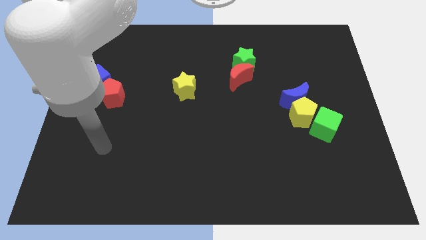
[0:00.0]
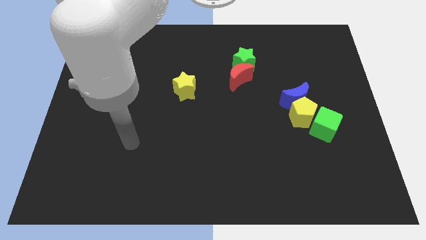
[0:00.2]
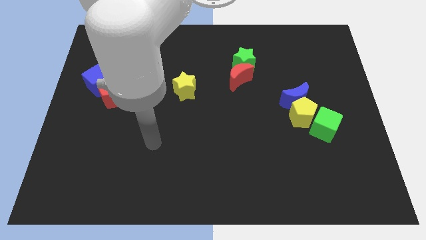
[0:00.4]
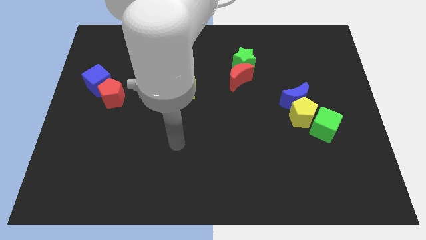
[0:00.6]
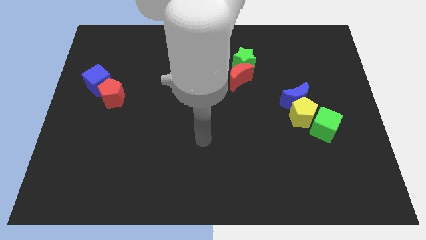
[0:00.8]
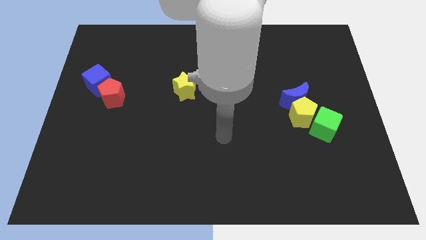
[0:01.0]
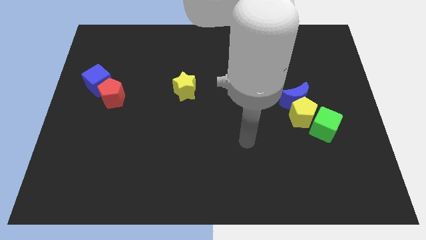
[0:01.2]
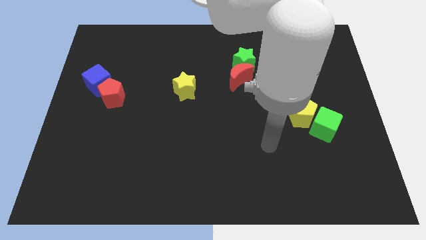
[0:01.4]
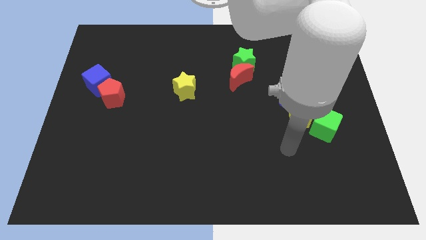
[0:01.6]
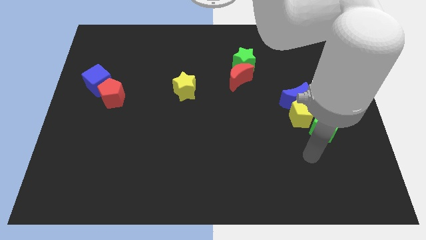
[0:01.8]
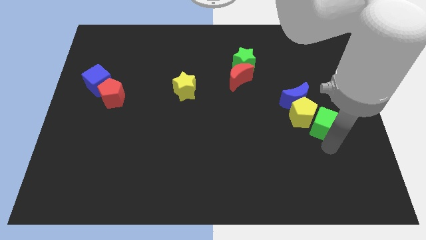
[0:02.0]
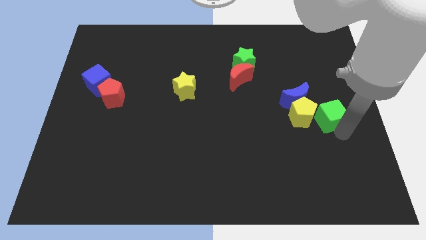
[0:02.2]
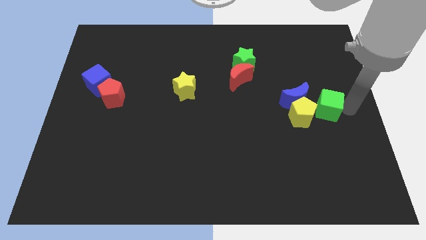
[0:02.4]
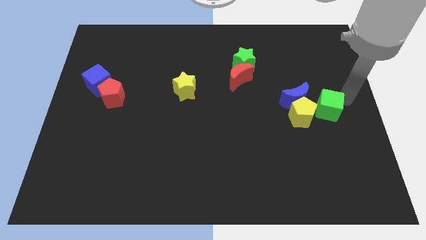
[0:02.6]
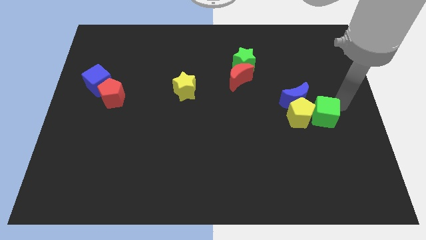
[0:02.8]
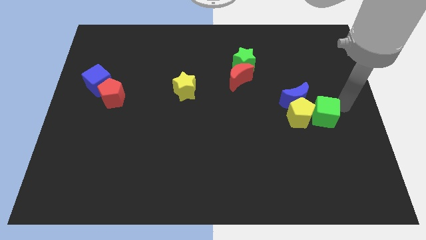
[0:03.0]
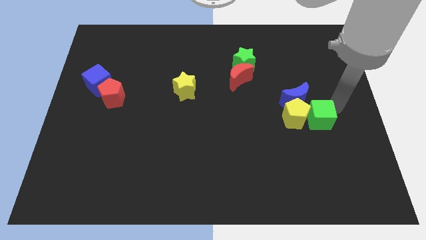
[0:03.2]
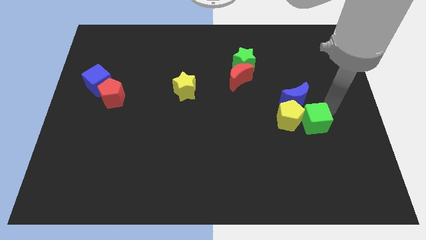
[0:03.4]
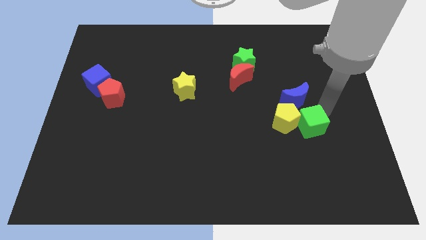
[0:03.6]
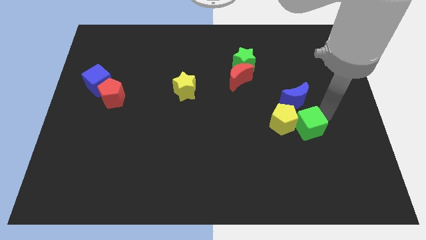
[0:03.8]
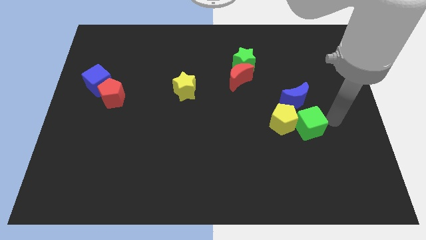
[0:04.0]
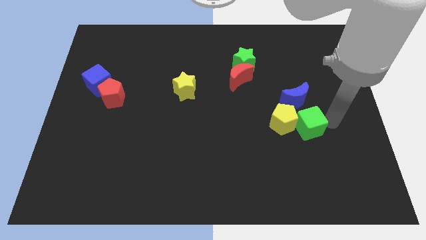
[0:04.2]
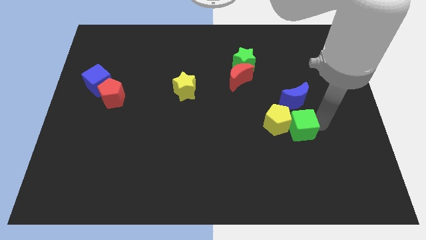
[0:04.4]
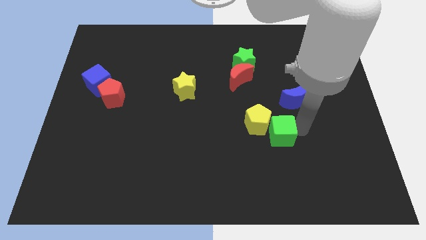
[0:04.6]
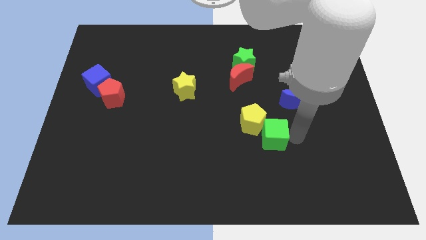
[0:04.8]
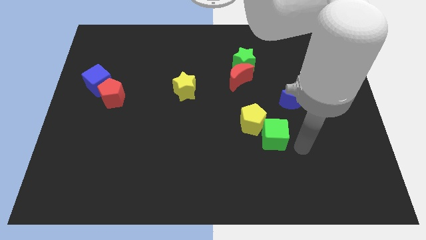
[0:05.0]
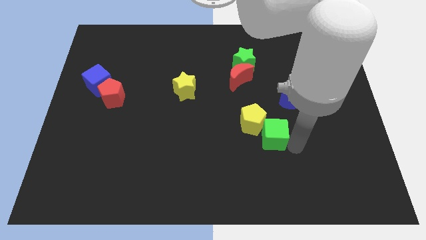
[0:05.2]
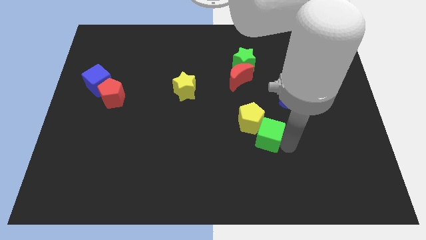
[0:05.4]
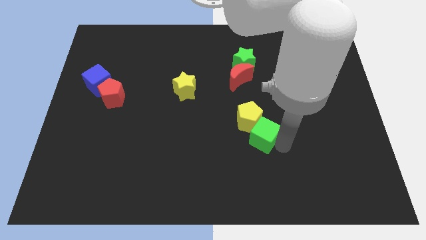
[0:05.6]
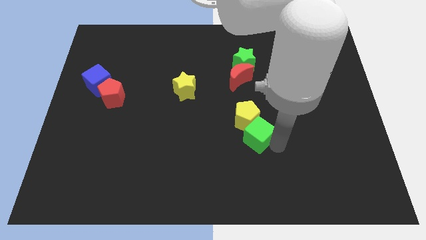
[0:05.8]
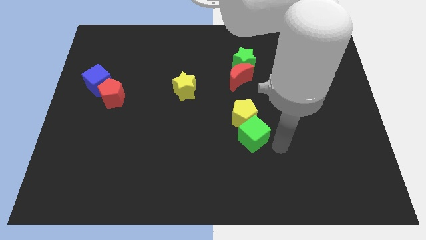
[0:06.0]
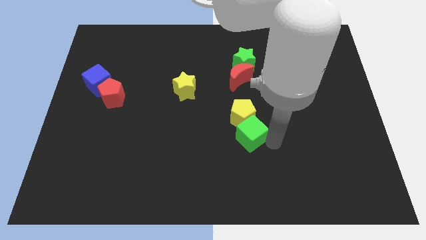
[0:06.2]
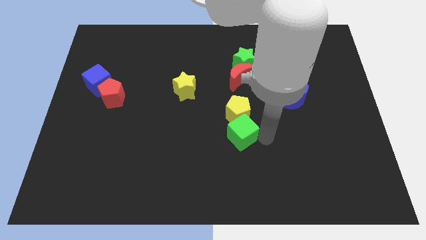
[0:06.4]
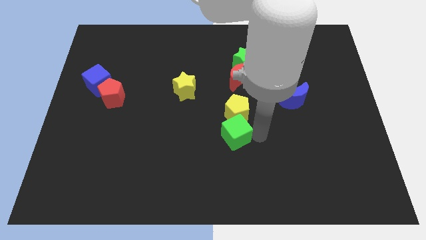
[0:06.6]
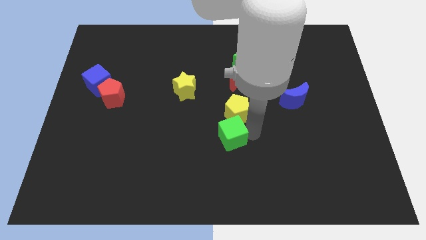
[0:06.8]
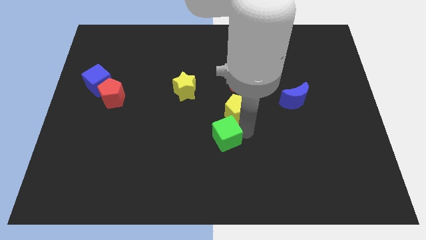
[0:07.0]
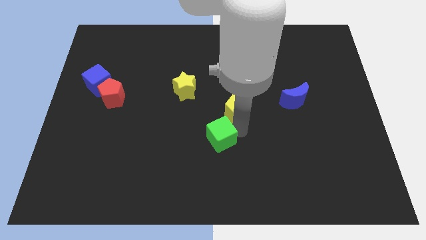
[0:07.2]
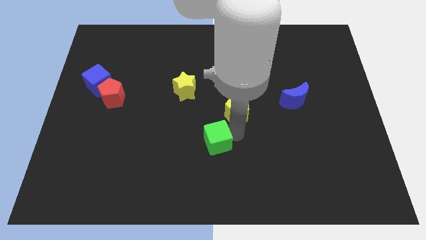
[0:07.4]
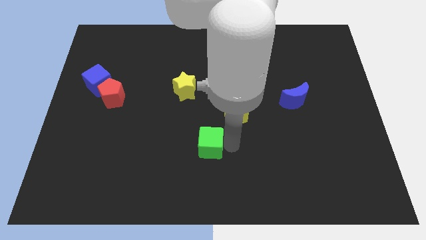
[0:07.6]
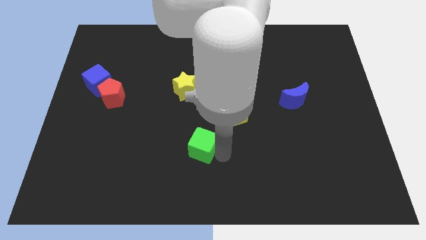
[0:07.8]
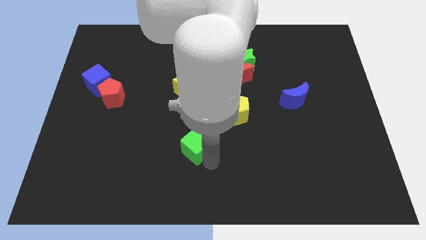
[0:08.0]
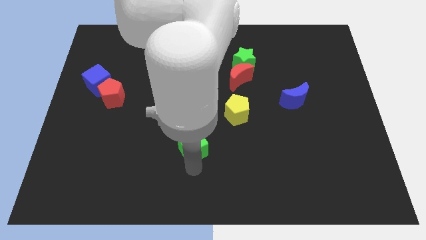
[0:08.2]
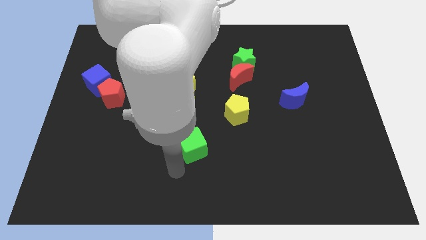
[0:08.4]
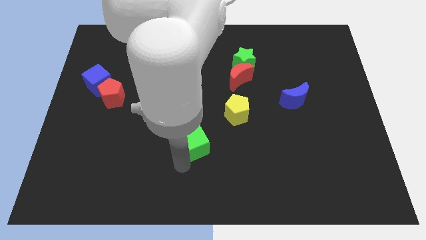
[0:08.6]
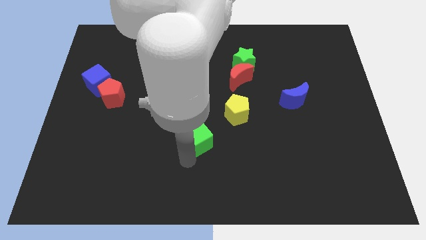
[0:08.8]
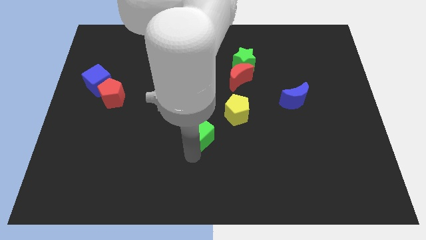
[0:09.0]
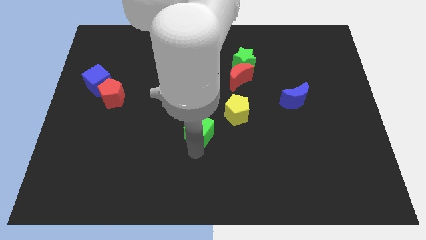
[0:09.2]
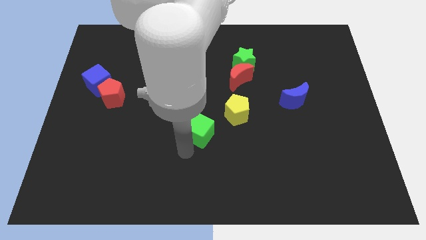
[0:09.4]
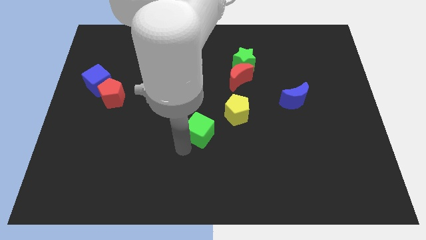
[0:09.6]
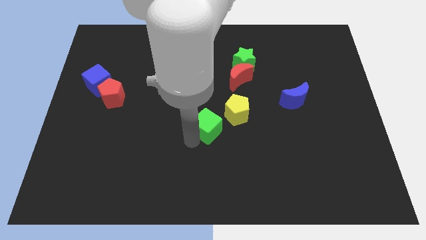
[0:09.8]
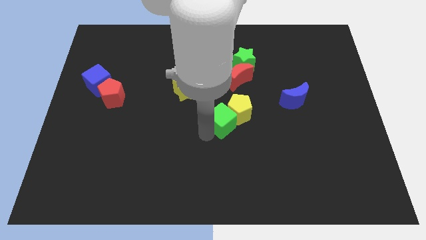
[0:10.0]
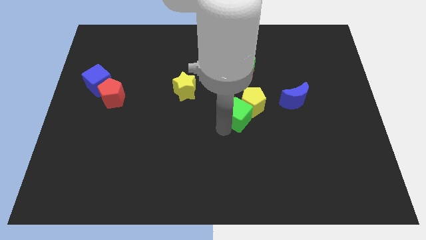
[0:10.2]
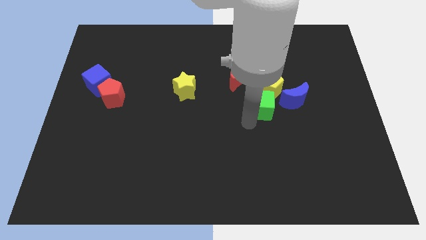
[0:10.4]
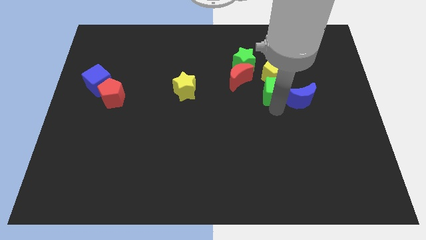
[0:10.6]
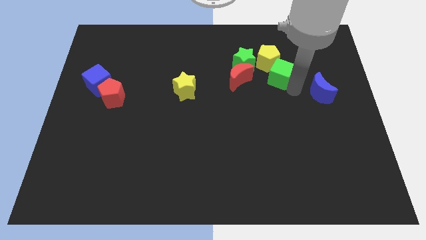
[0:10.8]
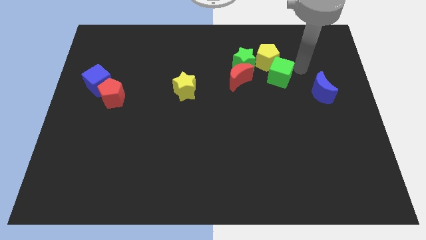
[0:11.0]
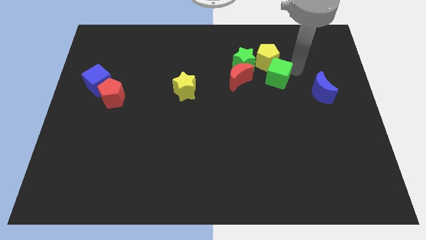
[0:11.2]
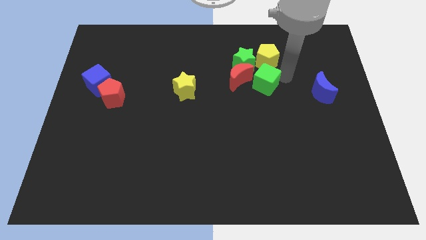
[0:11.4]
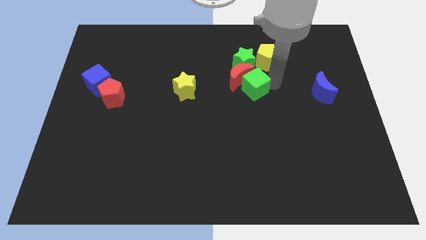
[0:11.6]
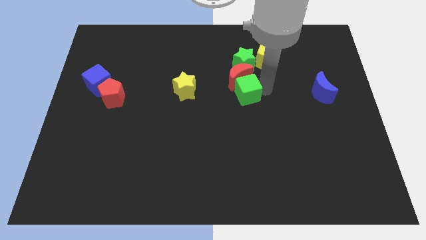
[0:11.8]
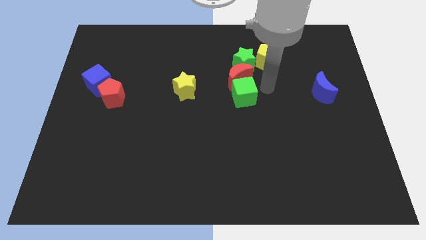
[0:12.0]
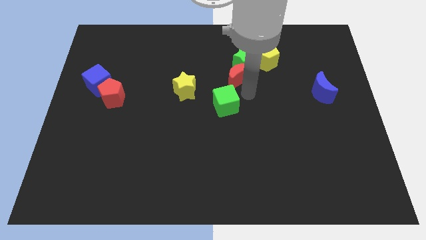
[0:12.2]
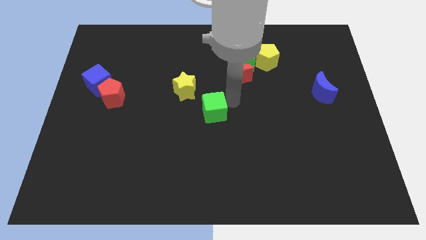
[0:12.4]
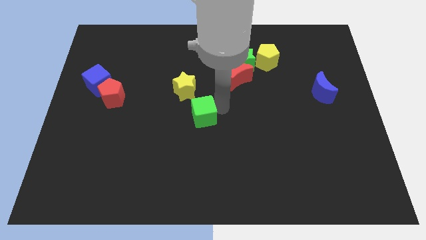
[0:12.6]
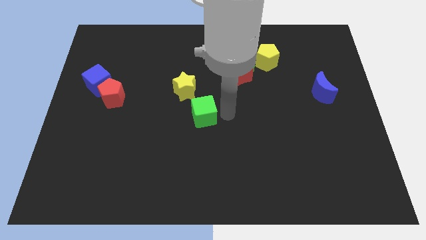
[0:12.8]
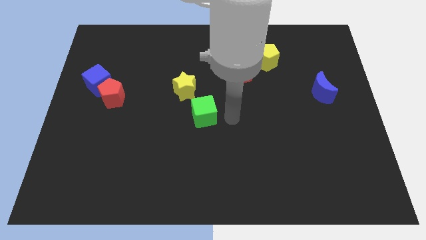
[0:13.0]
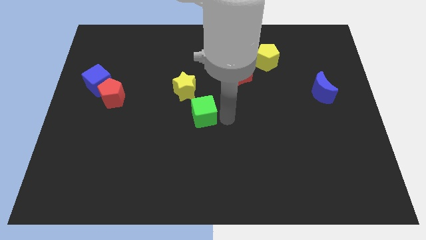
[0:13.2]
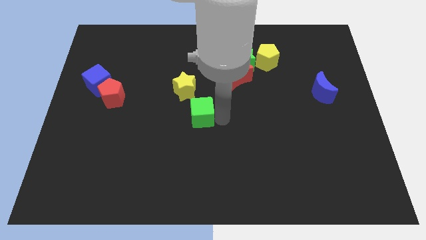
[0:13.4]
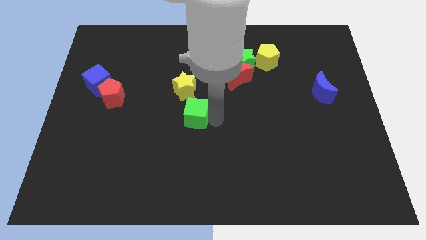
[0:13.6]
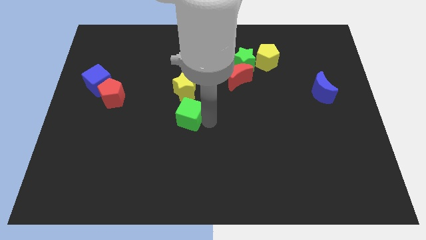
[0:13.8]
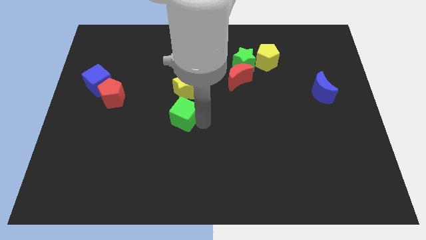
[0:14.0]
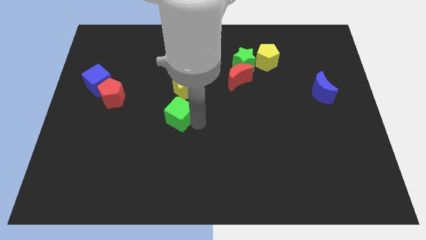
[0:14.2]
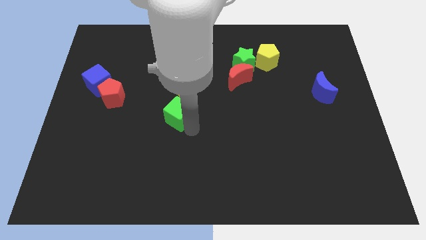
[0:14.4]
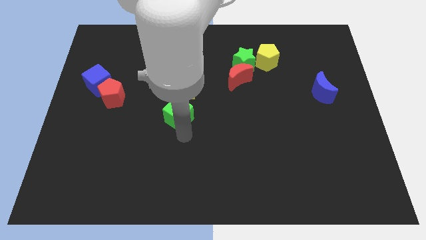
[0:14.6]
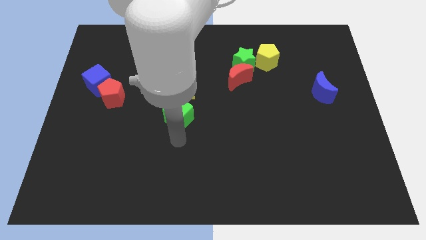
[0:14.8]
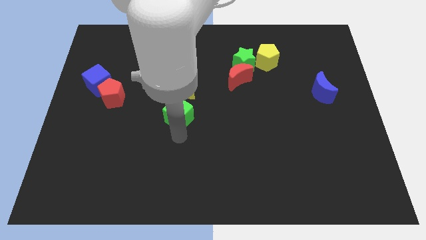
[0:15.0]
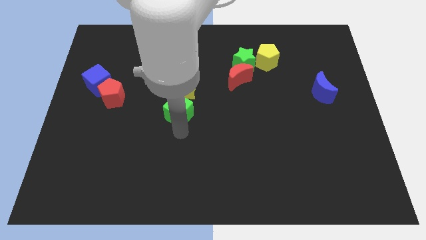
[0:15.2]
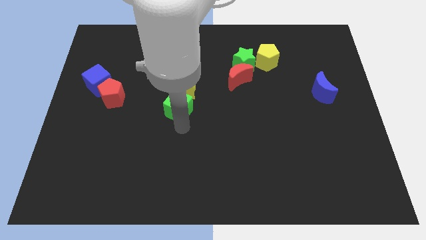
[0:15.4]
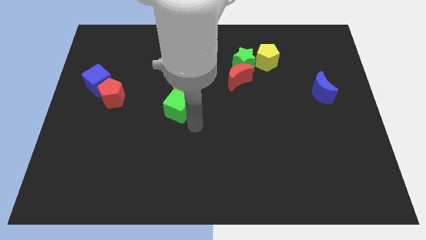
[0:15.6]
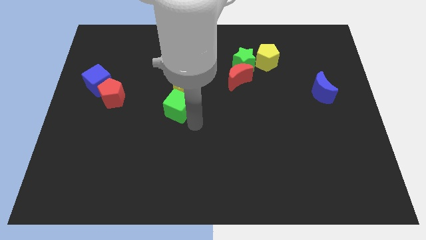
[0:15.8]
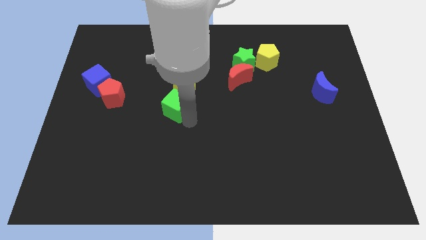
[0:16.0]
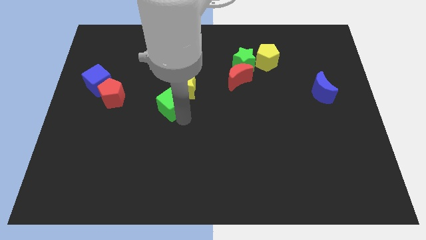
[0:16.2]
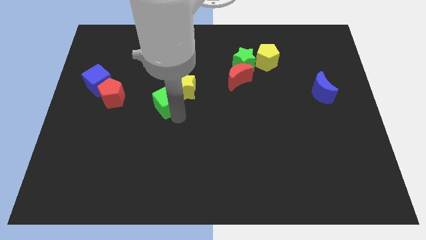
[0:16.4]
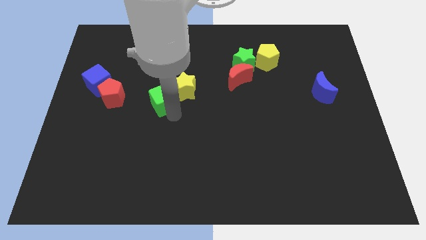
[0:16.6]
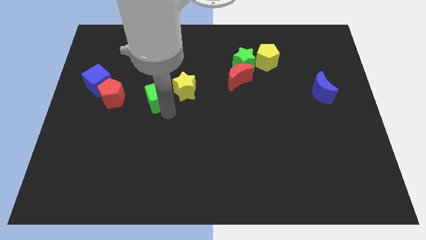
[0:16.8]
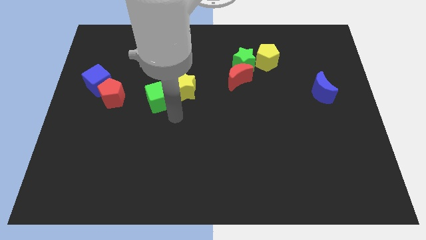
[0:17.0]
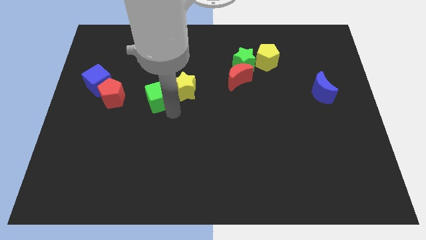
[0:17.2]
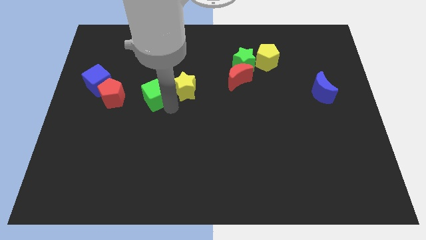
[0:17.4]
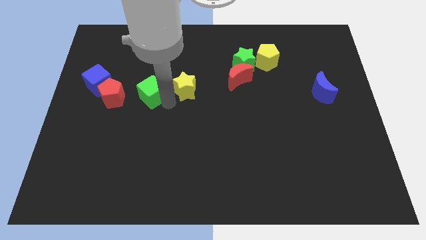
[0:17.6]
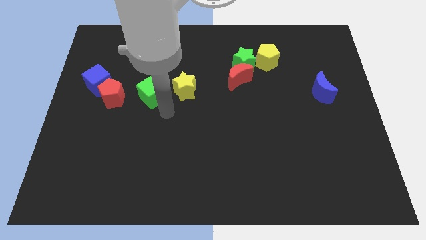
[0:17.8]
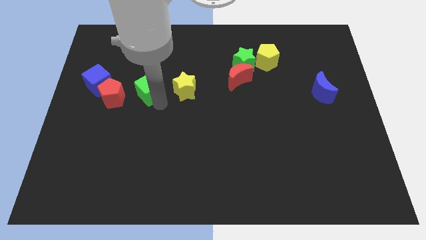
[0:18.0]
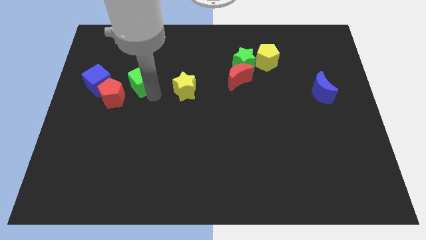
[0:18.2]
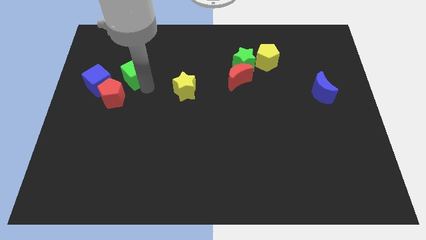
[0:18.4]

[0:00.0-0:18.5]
move the green cube to the top right side of the blue cube
